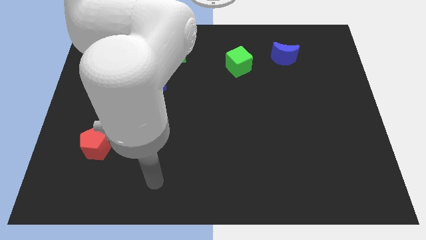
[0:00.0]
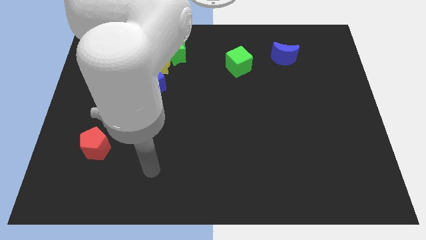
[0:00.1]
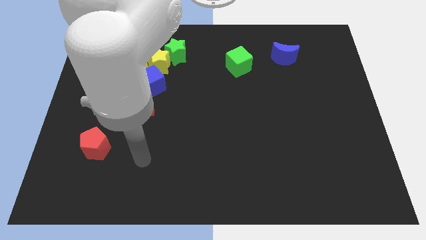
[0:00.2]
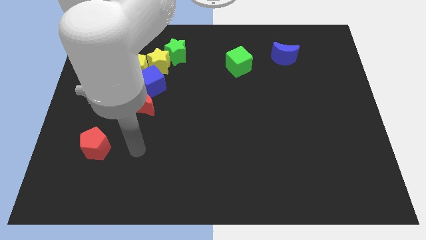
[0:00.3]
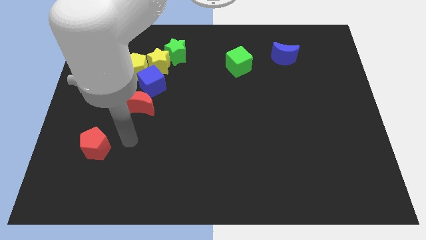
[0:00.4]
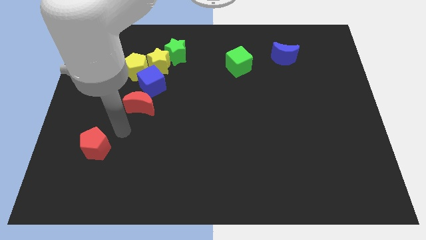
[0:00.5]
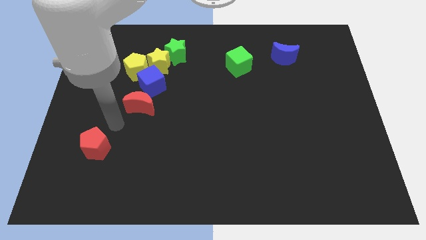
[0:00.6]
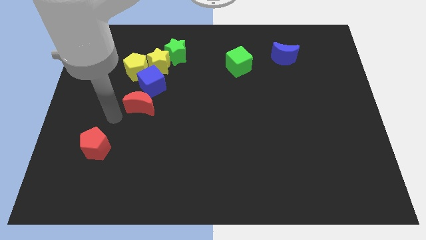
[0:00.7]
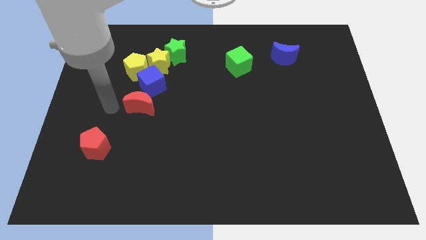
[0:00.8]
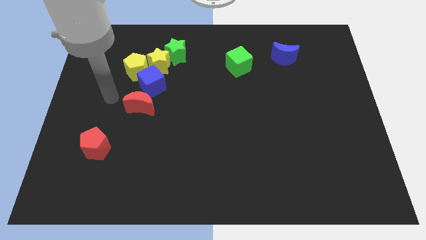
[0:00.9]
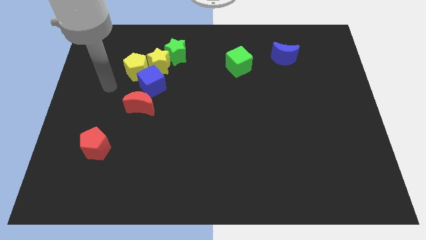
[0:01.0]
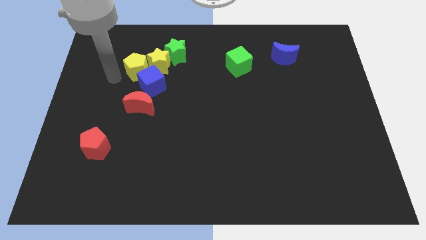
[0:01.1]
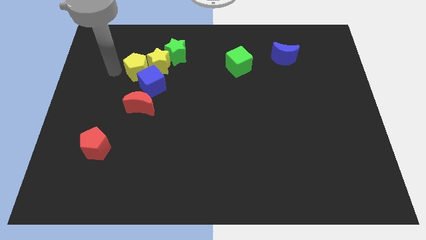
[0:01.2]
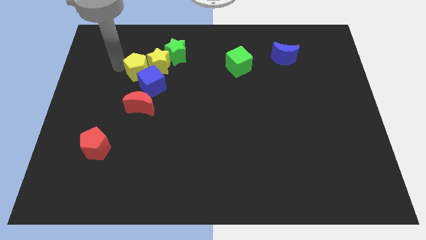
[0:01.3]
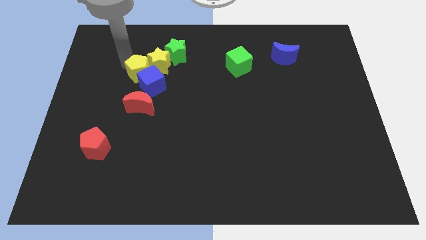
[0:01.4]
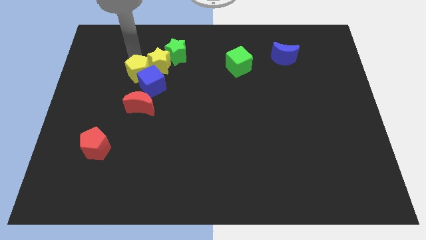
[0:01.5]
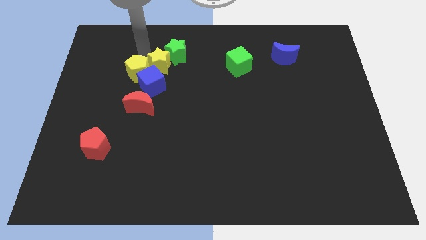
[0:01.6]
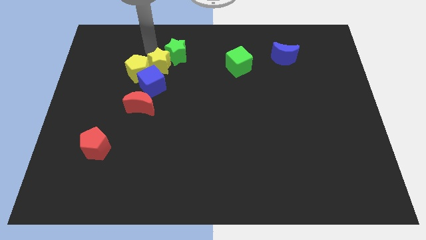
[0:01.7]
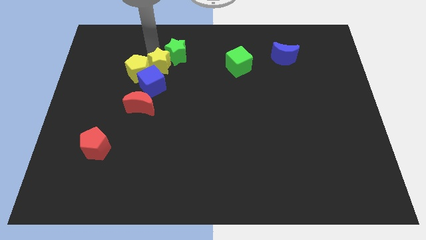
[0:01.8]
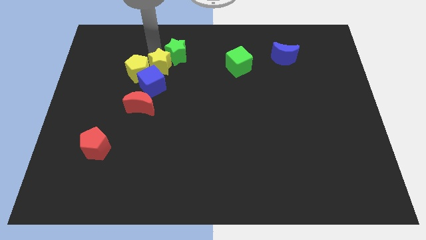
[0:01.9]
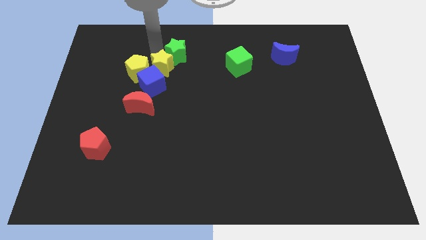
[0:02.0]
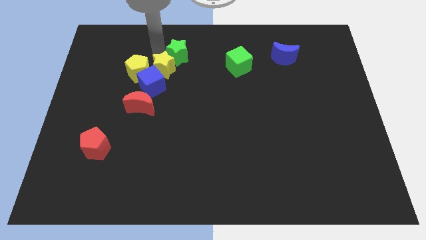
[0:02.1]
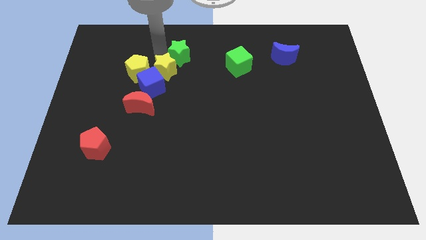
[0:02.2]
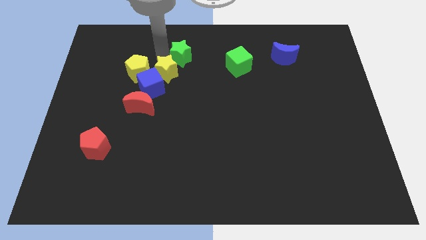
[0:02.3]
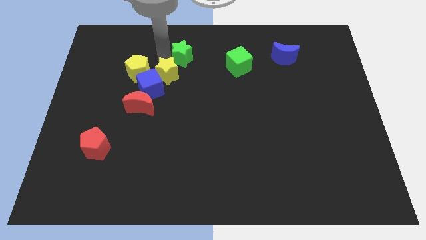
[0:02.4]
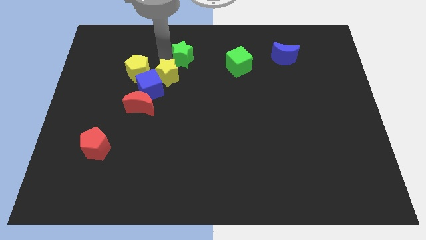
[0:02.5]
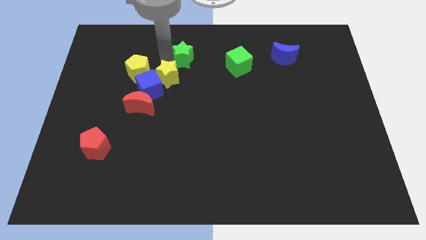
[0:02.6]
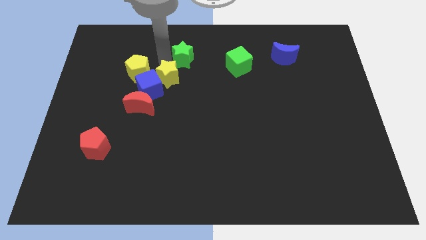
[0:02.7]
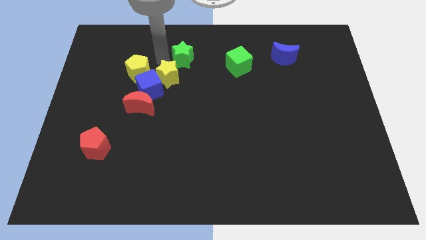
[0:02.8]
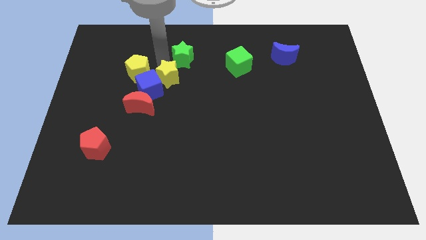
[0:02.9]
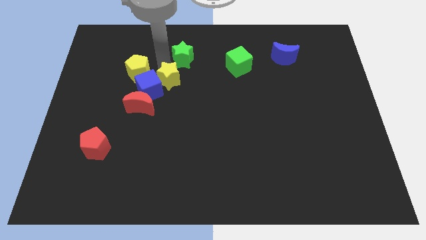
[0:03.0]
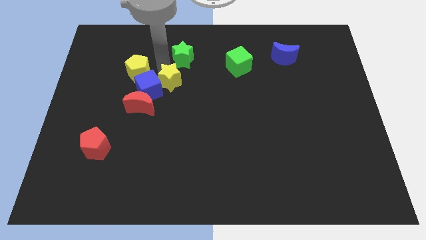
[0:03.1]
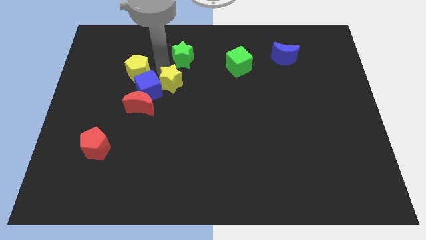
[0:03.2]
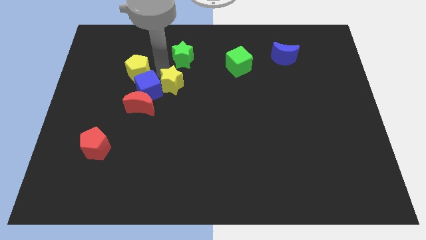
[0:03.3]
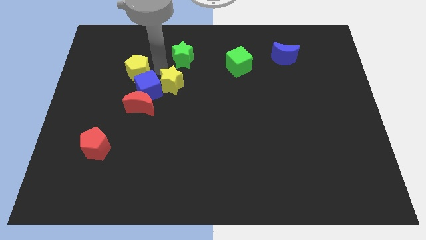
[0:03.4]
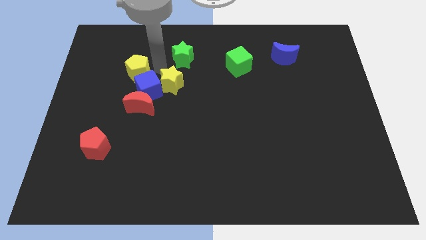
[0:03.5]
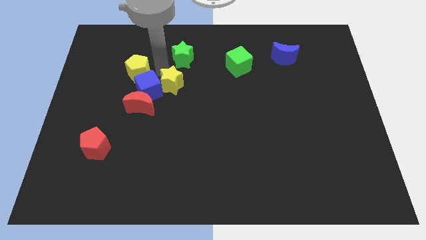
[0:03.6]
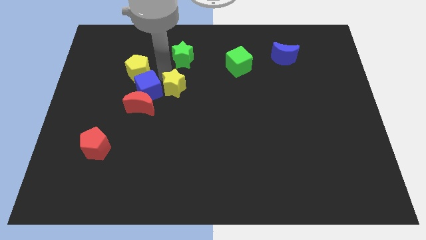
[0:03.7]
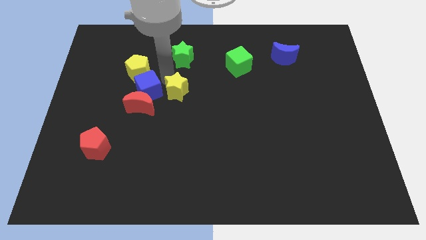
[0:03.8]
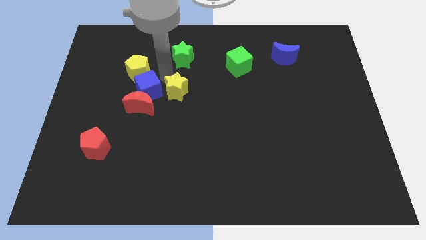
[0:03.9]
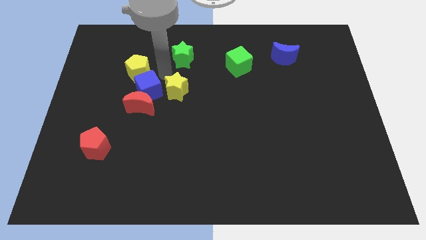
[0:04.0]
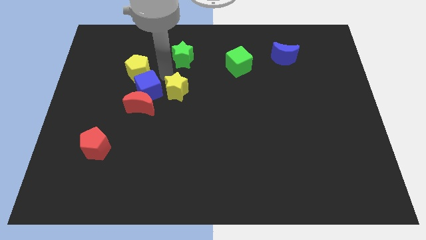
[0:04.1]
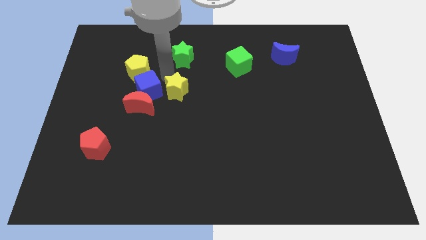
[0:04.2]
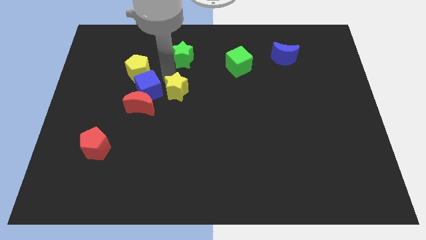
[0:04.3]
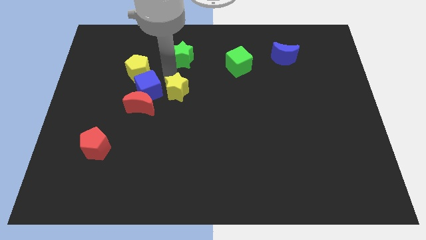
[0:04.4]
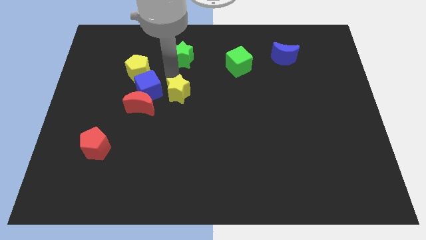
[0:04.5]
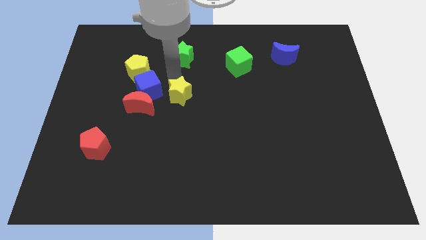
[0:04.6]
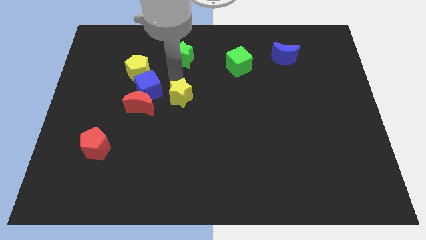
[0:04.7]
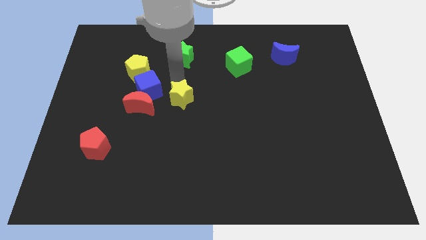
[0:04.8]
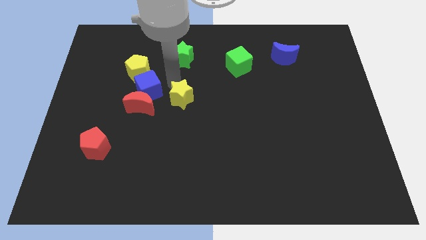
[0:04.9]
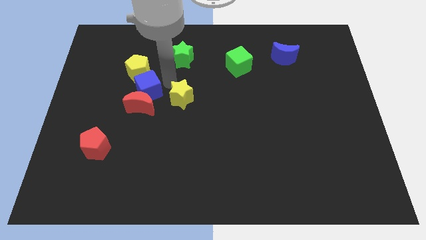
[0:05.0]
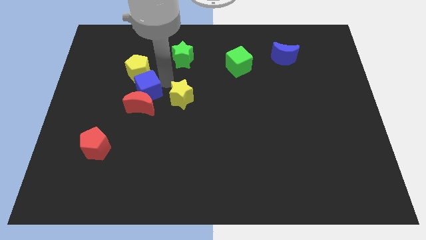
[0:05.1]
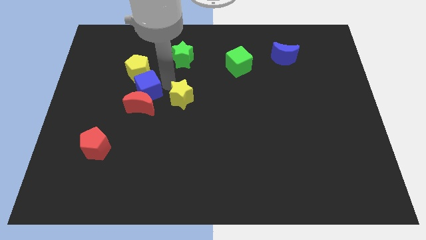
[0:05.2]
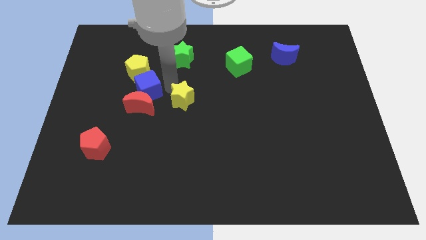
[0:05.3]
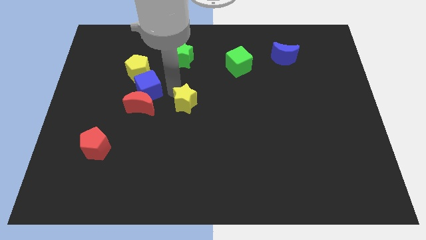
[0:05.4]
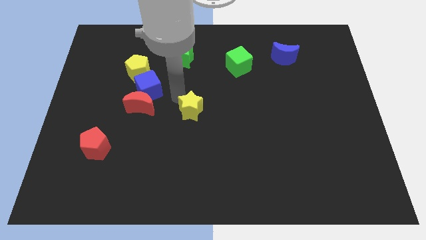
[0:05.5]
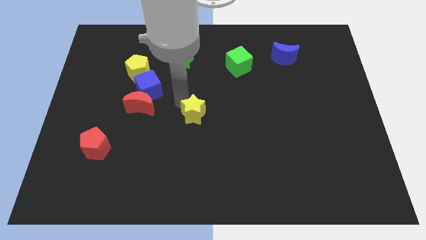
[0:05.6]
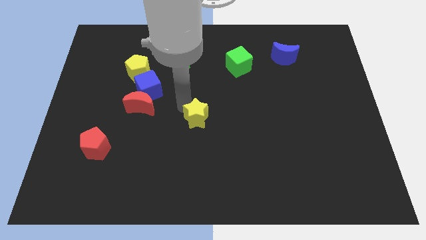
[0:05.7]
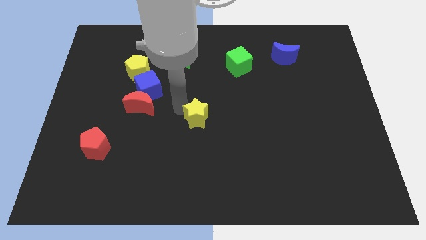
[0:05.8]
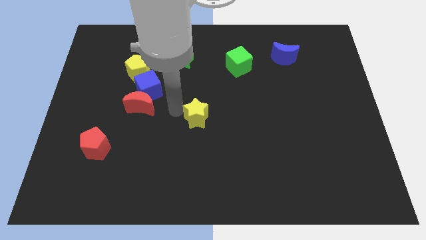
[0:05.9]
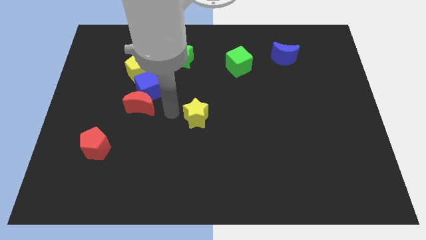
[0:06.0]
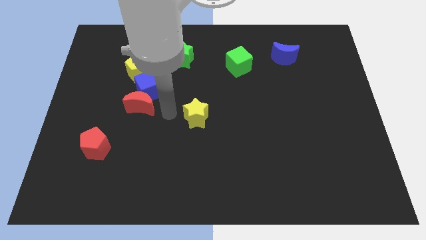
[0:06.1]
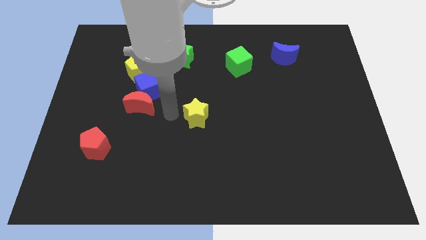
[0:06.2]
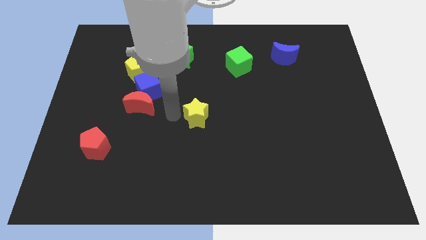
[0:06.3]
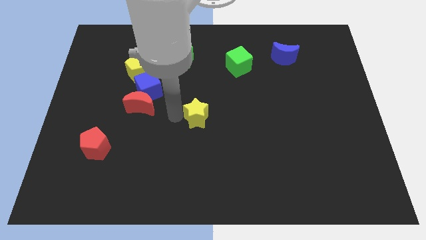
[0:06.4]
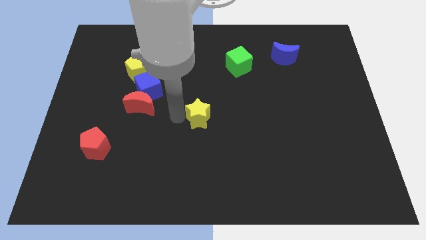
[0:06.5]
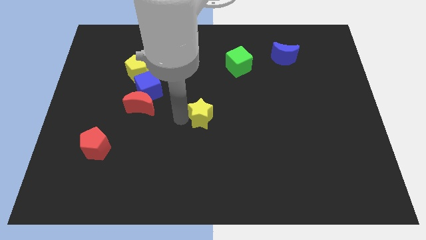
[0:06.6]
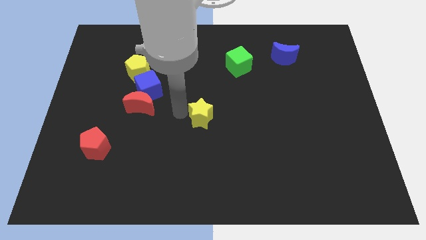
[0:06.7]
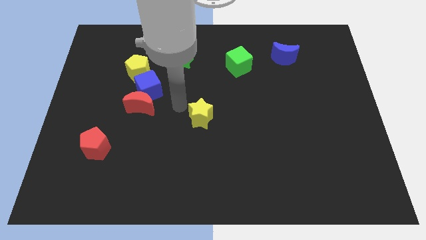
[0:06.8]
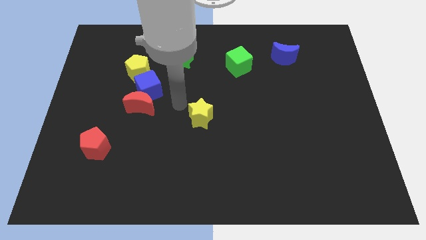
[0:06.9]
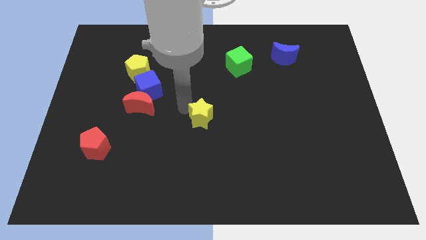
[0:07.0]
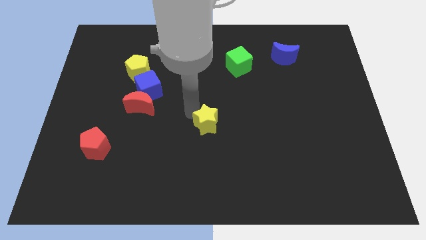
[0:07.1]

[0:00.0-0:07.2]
push the yellow star downwards and right diagonally

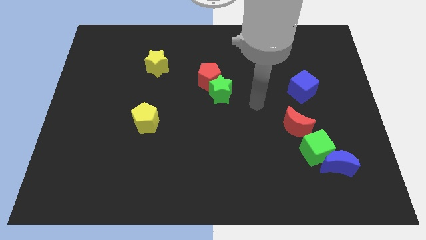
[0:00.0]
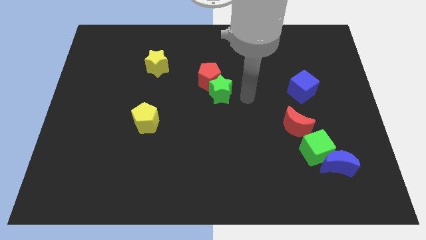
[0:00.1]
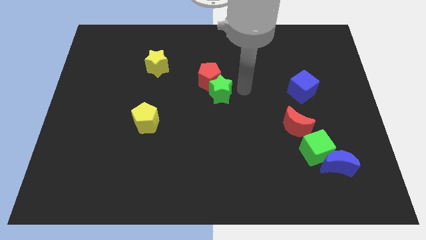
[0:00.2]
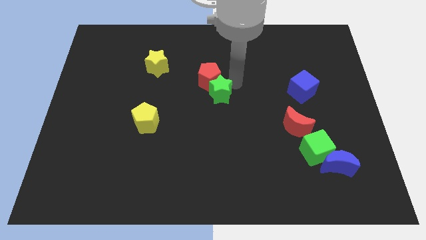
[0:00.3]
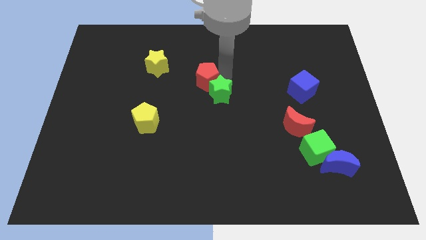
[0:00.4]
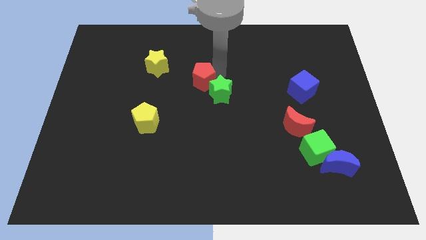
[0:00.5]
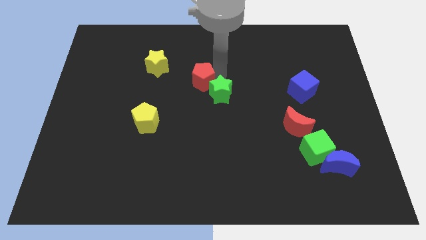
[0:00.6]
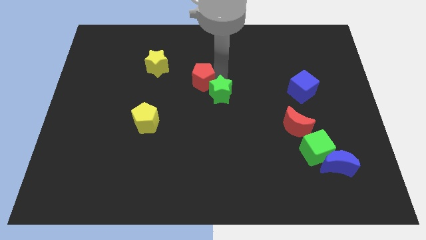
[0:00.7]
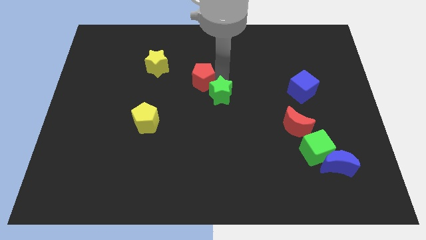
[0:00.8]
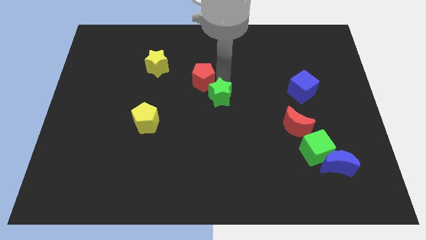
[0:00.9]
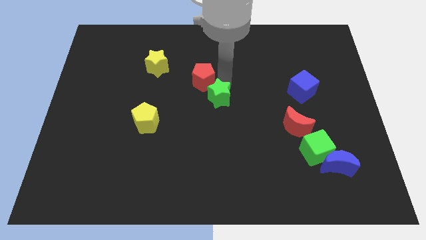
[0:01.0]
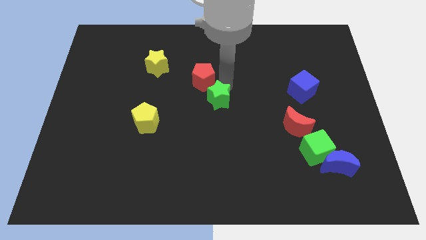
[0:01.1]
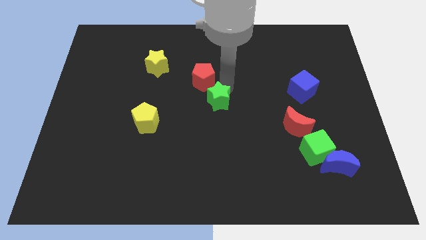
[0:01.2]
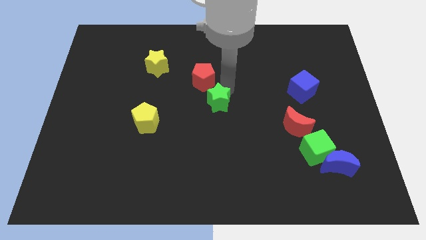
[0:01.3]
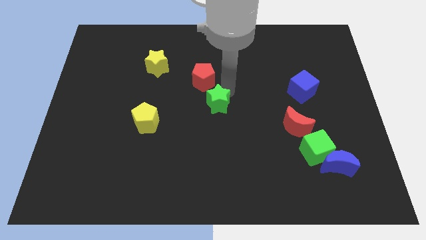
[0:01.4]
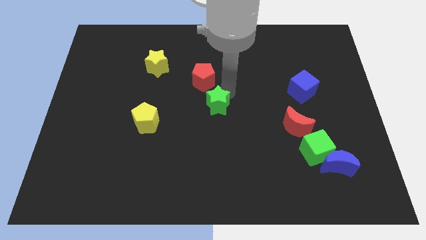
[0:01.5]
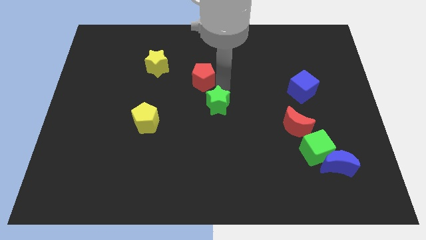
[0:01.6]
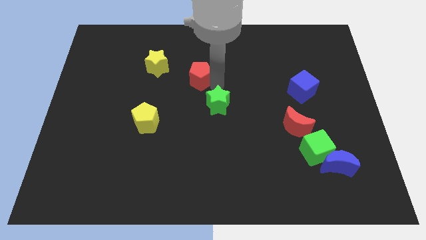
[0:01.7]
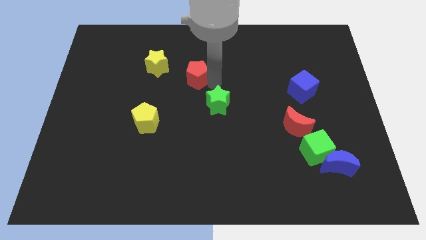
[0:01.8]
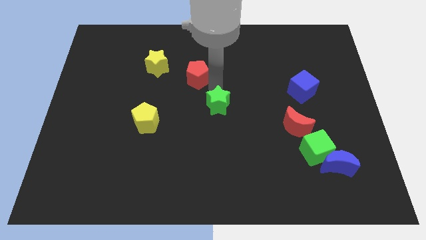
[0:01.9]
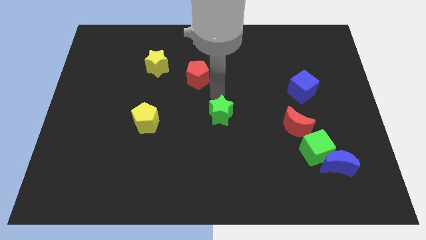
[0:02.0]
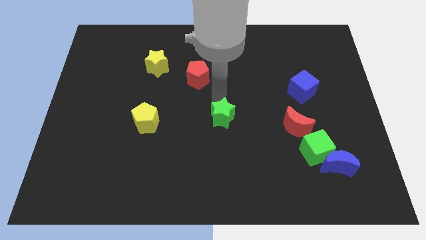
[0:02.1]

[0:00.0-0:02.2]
move the green star downwards a little bit
